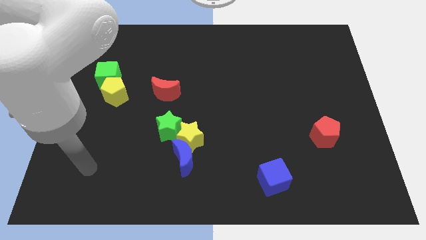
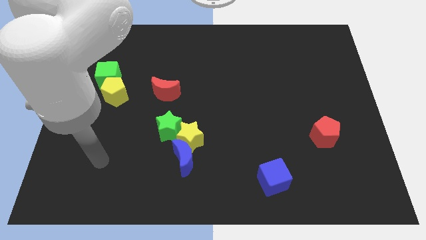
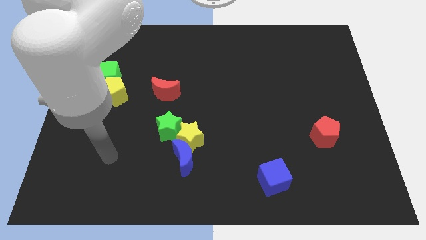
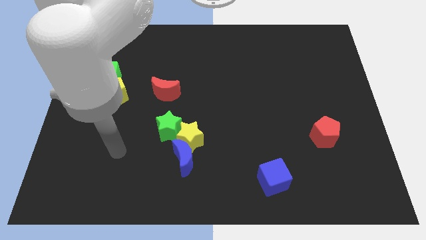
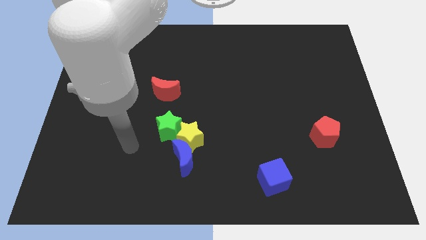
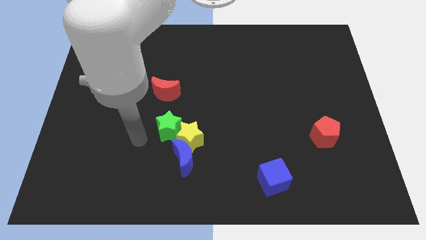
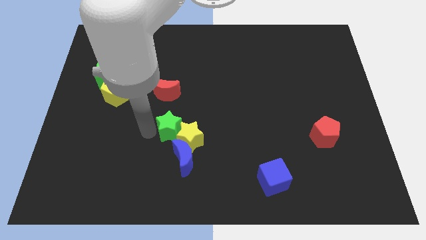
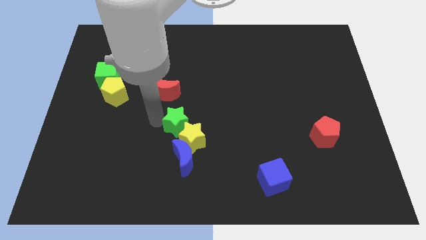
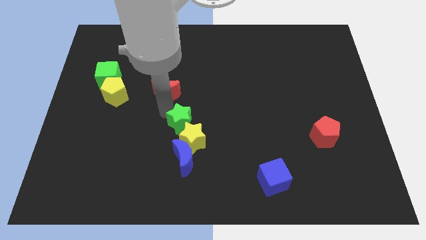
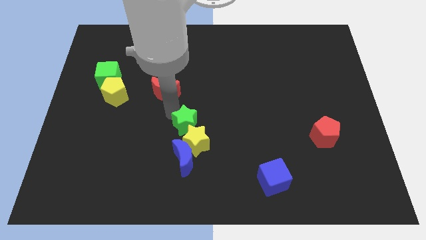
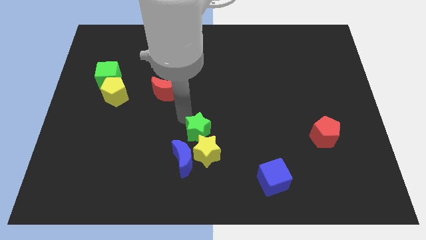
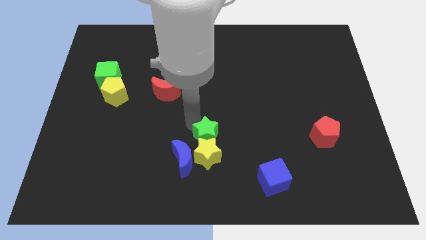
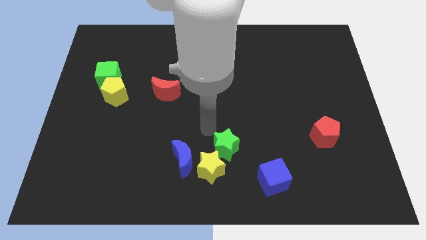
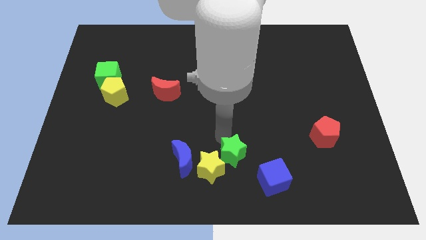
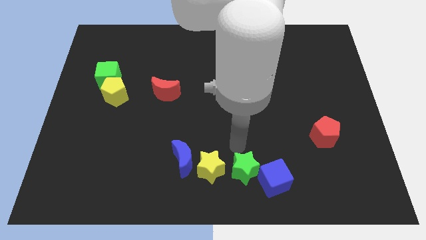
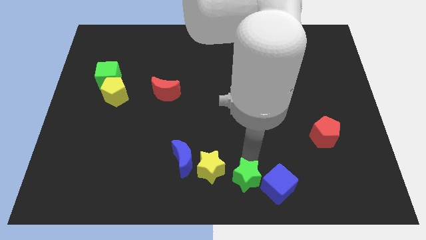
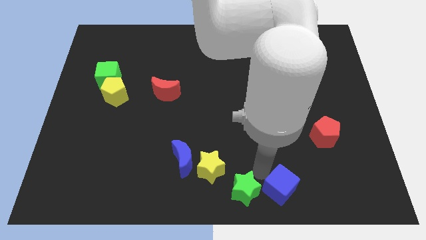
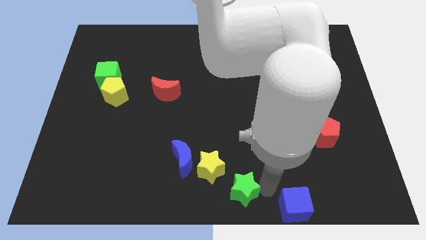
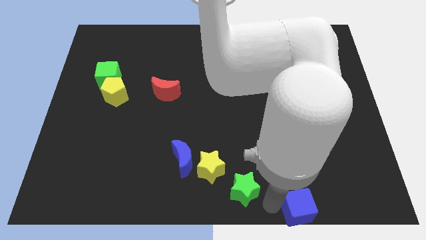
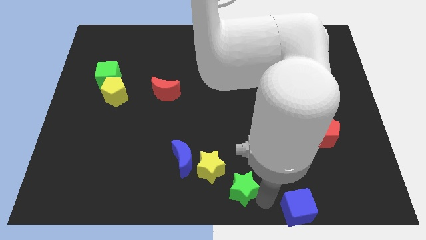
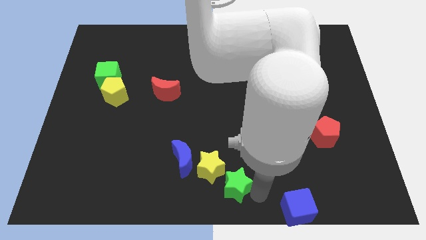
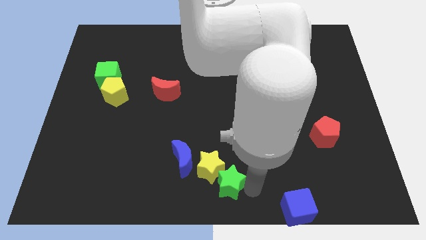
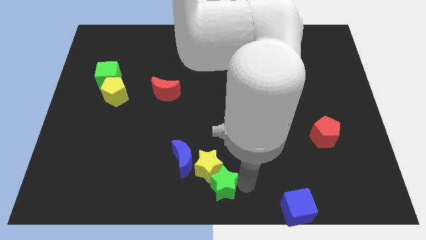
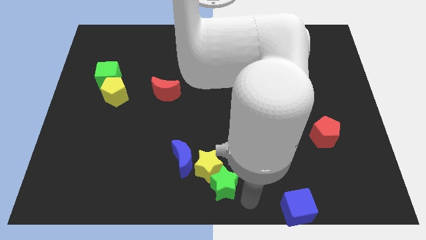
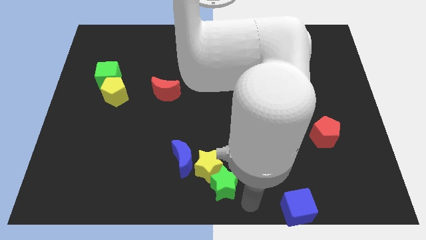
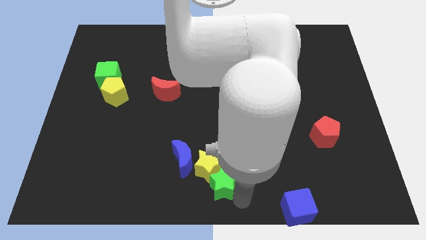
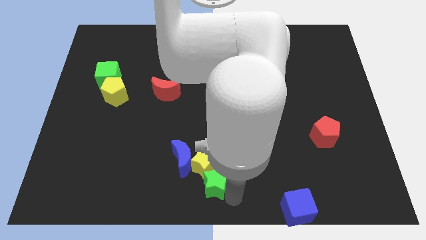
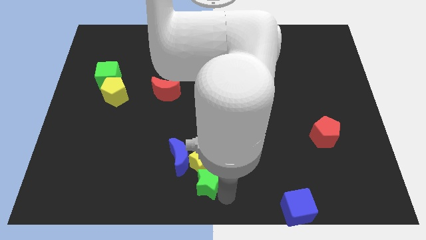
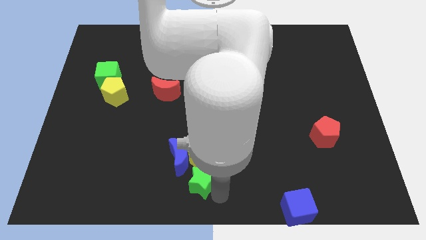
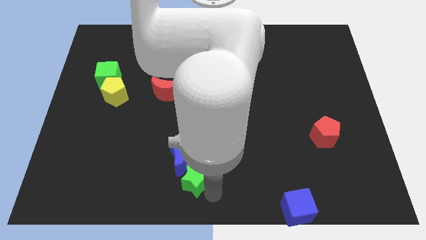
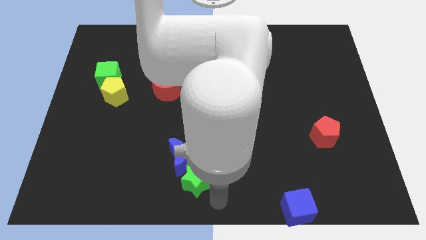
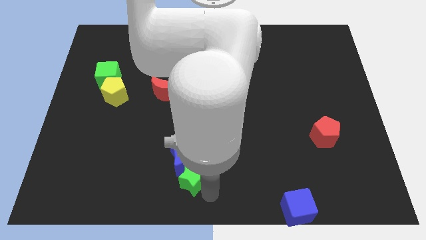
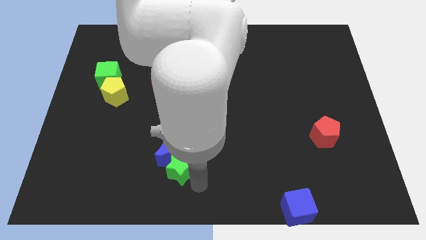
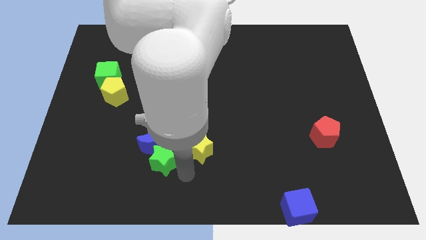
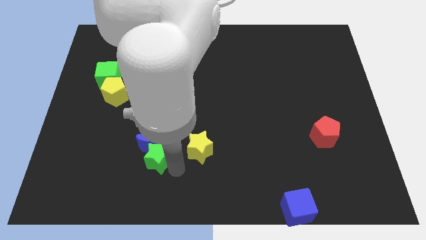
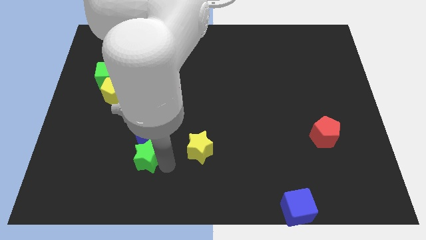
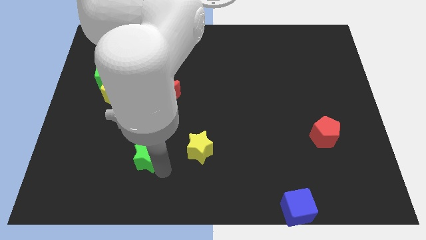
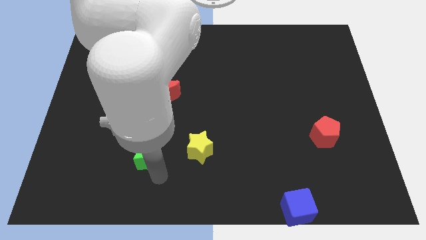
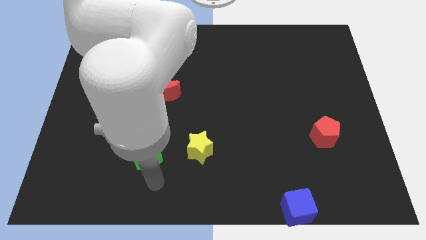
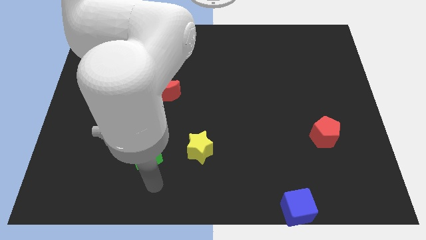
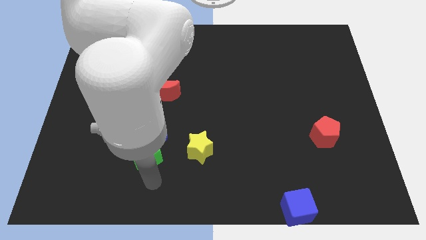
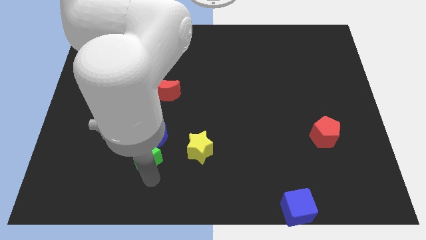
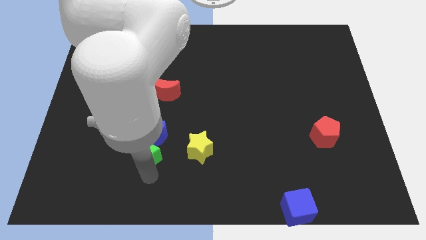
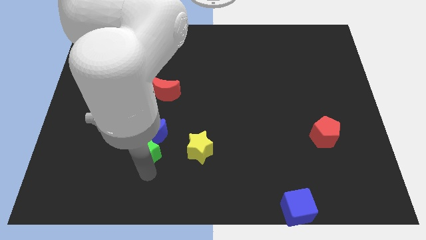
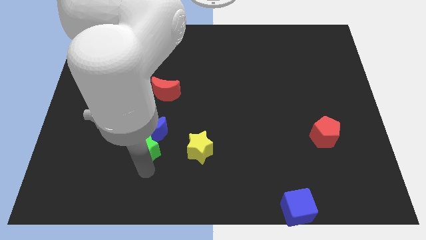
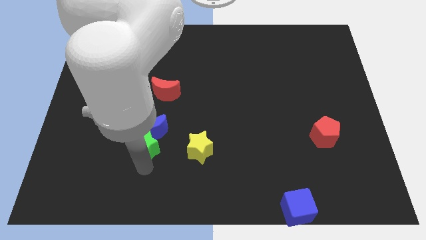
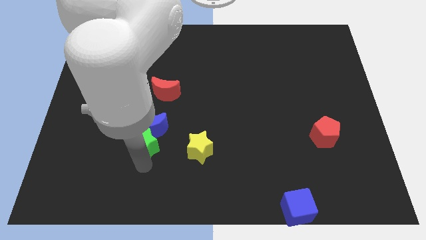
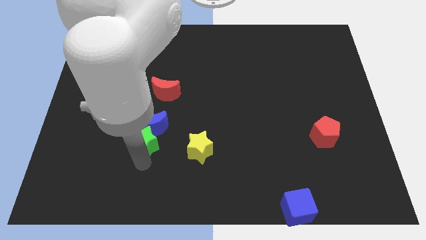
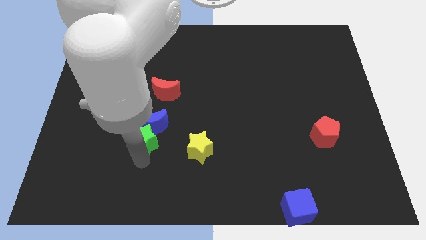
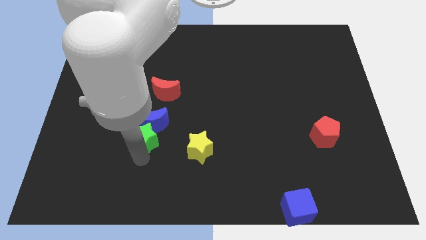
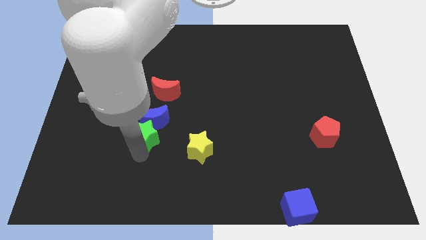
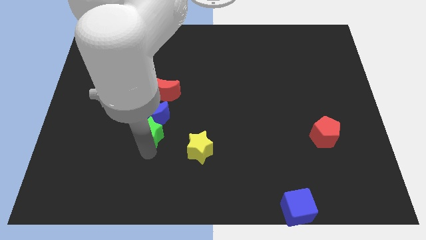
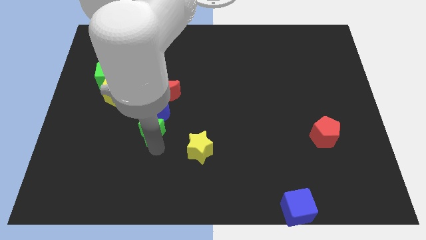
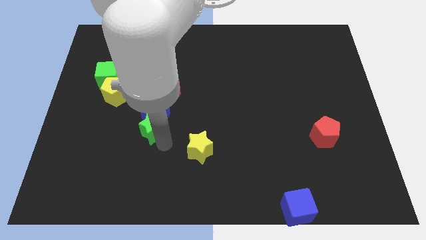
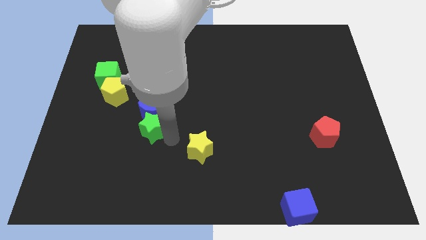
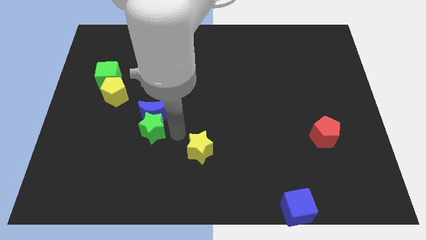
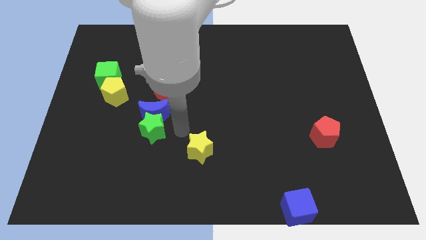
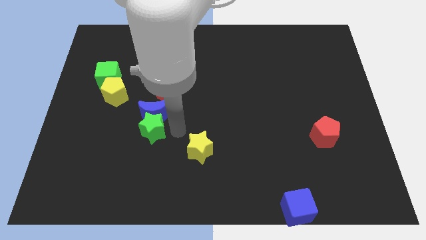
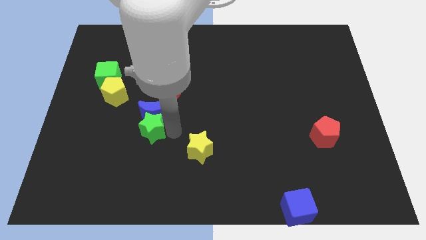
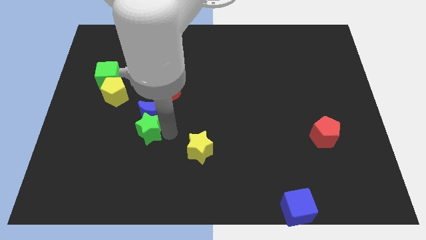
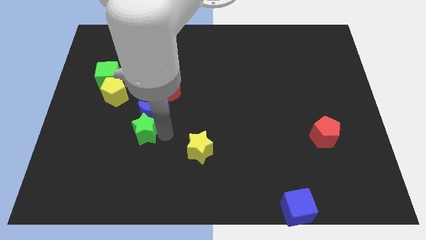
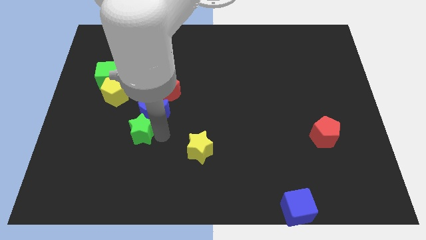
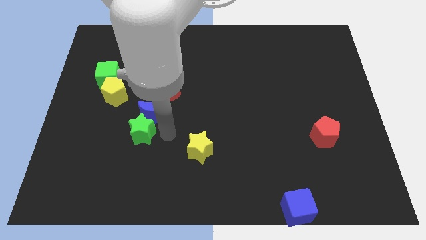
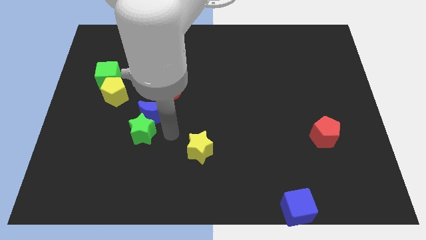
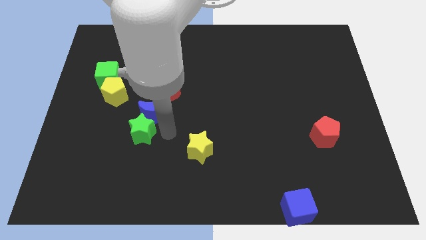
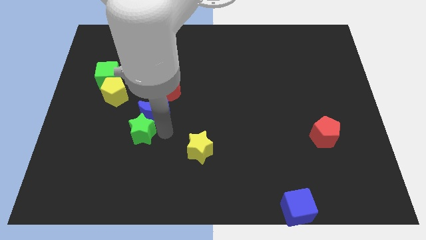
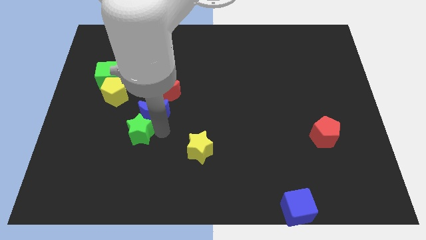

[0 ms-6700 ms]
slide the green star slightly to the left

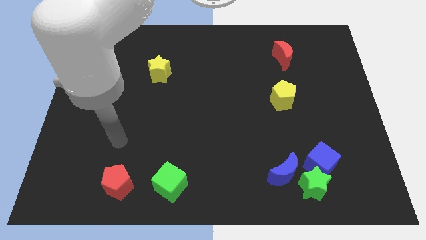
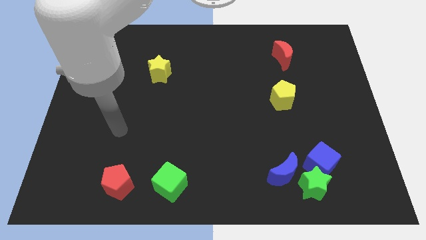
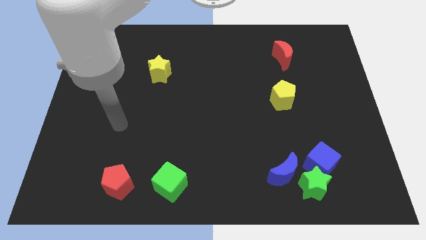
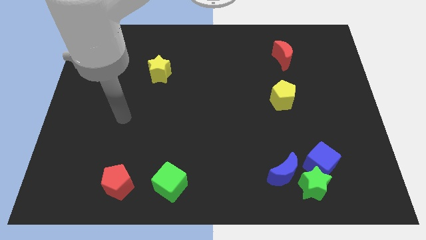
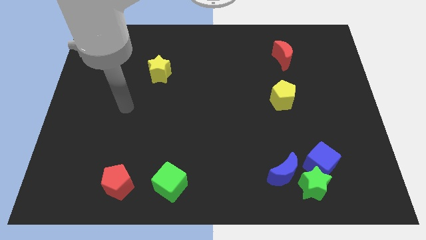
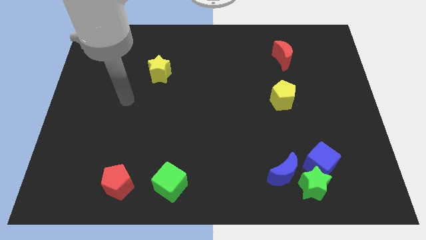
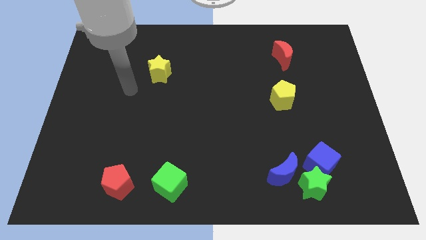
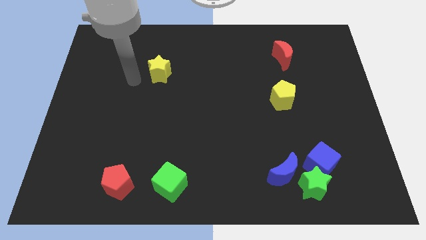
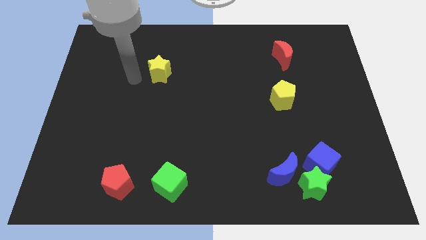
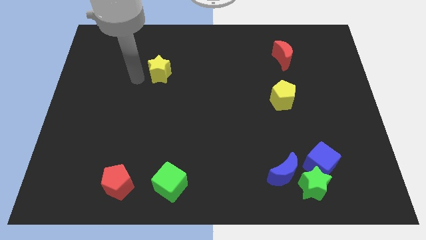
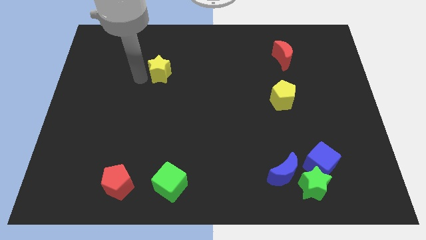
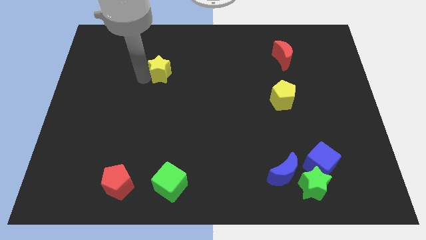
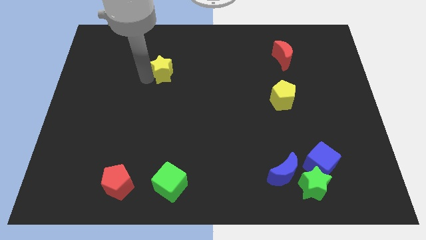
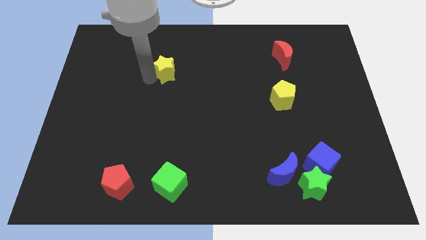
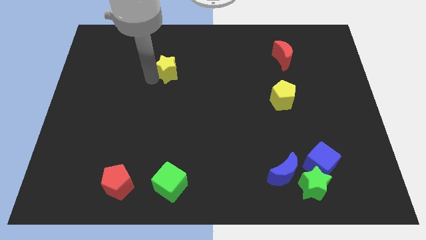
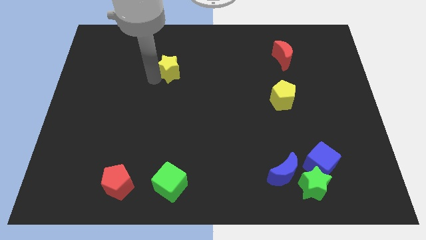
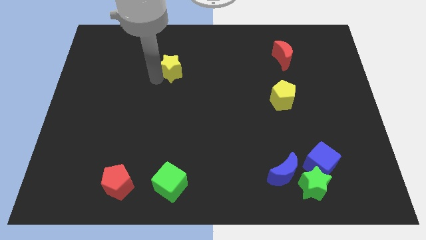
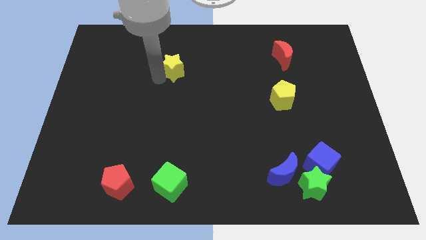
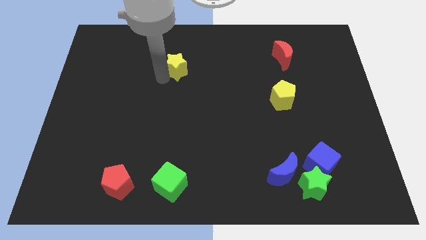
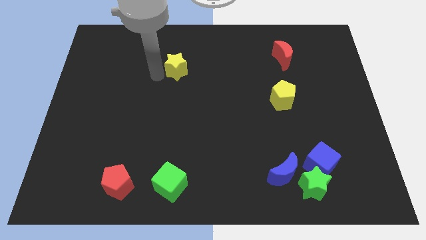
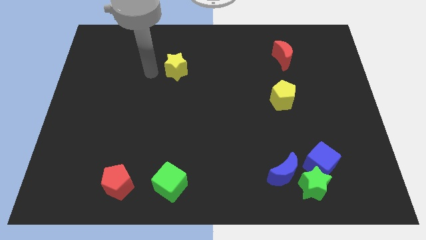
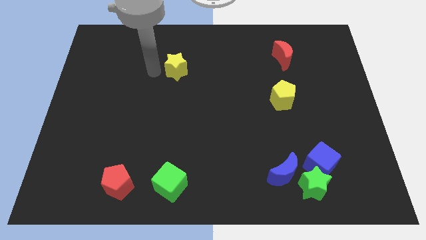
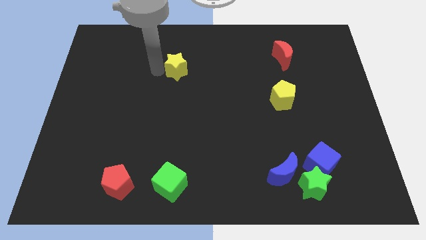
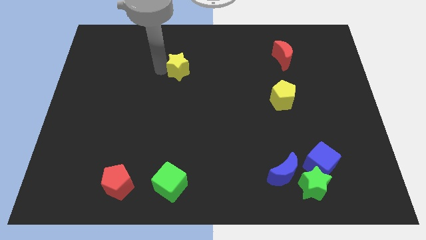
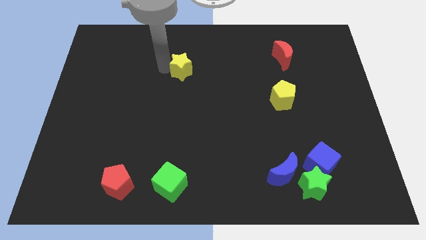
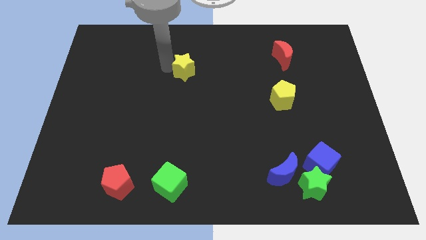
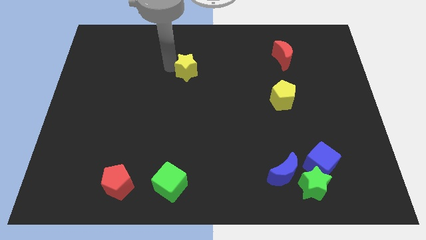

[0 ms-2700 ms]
push the yellow star right slightly
